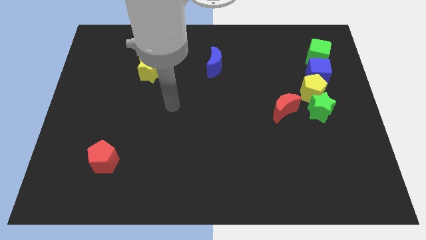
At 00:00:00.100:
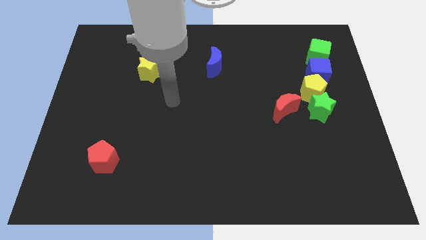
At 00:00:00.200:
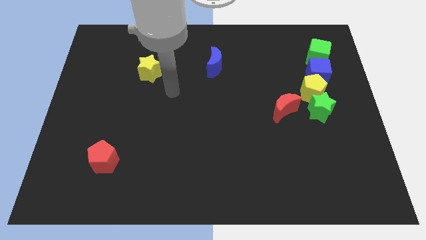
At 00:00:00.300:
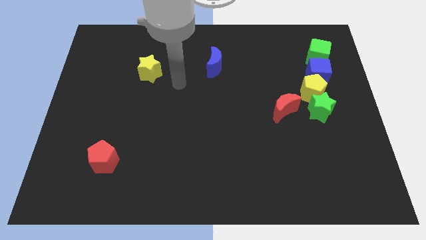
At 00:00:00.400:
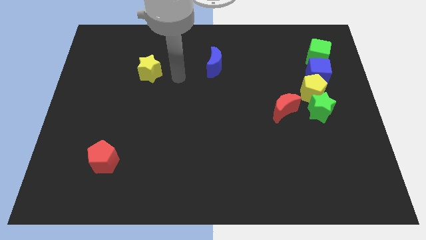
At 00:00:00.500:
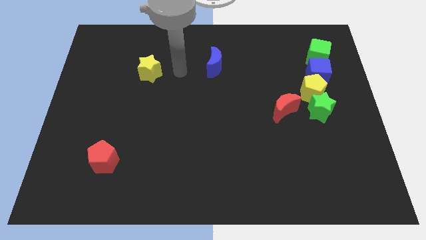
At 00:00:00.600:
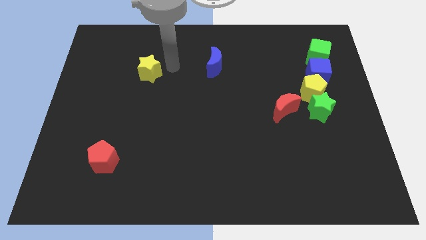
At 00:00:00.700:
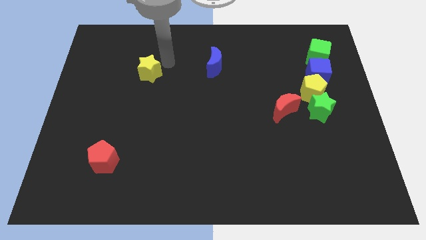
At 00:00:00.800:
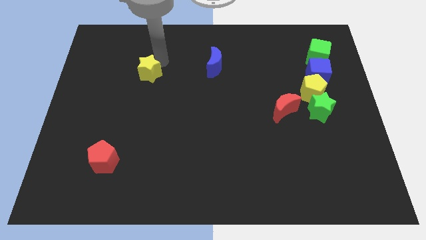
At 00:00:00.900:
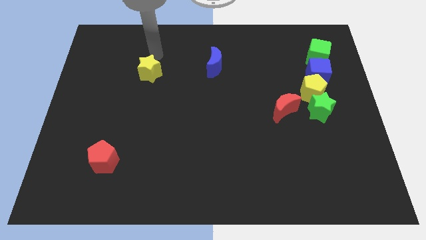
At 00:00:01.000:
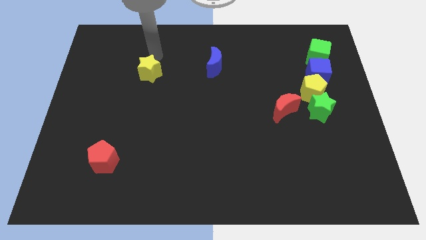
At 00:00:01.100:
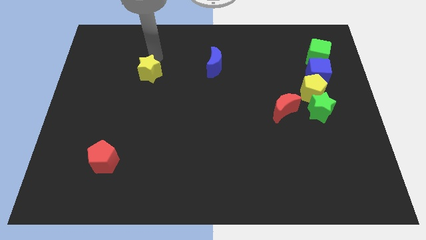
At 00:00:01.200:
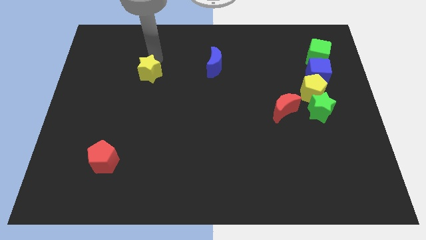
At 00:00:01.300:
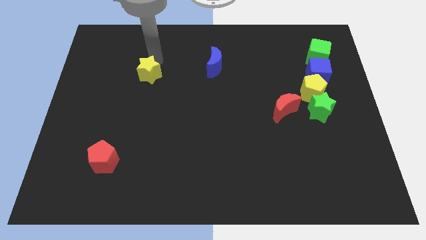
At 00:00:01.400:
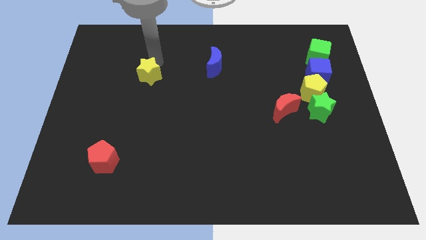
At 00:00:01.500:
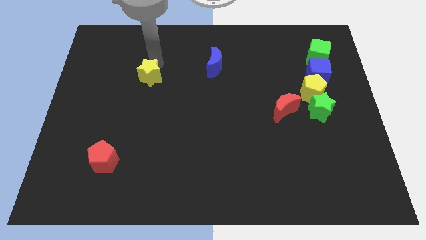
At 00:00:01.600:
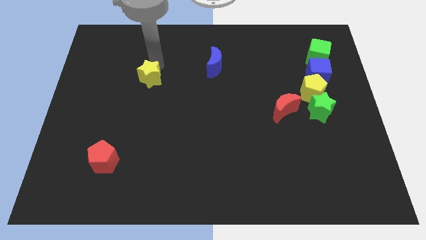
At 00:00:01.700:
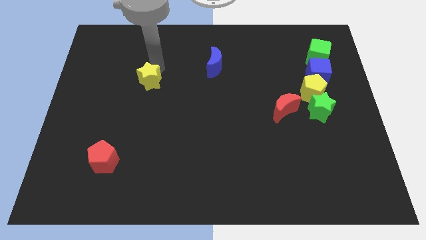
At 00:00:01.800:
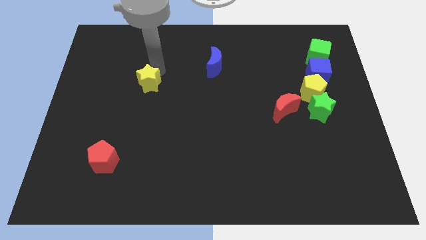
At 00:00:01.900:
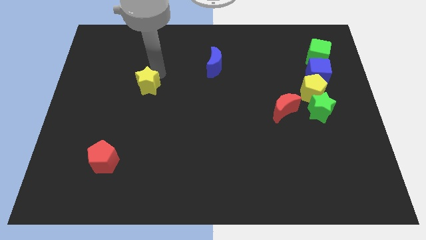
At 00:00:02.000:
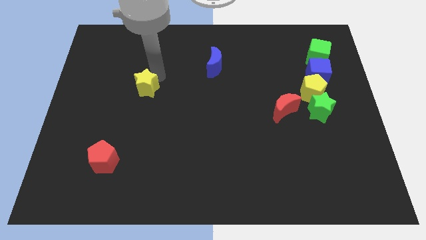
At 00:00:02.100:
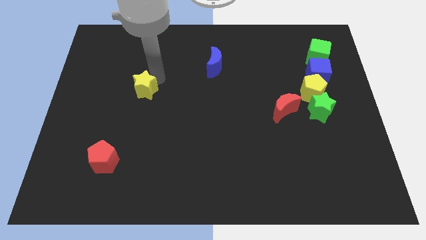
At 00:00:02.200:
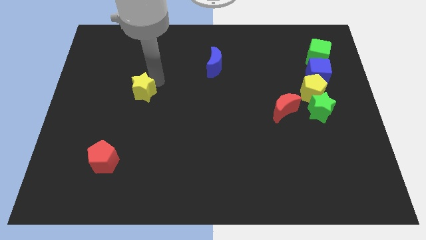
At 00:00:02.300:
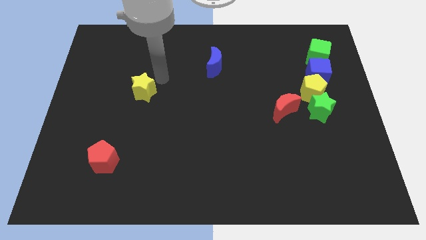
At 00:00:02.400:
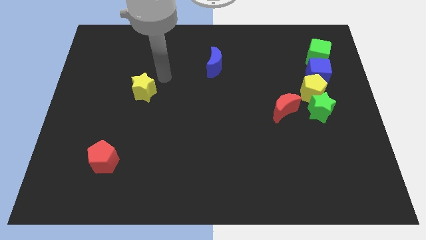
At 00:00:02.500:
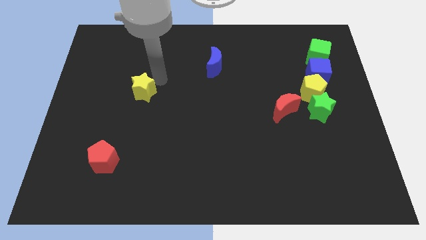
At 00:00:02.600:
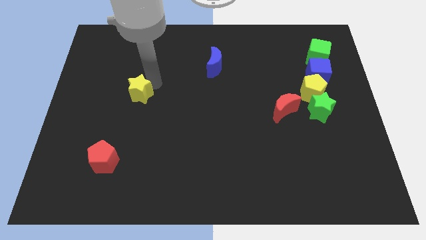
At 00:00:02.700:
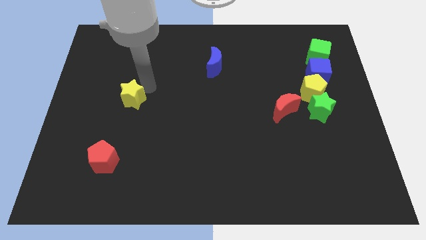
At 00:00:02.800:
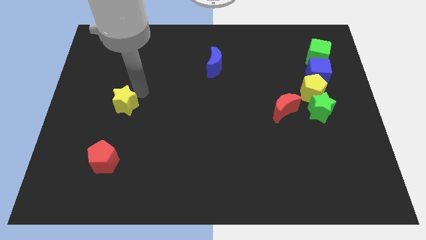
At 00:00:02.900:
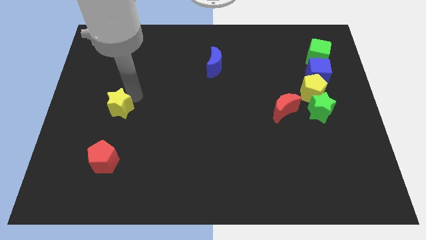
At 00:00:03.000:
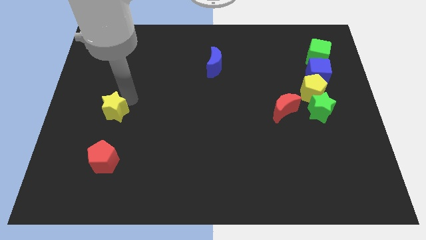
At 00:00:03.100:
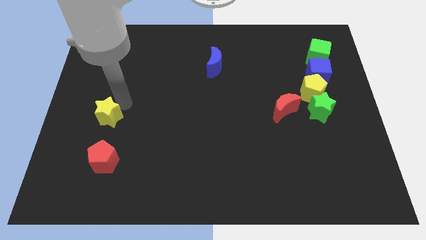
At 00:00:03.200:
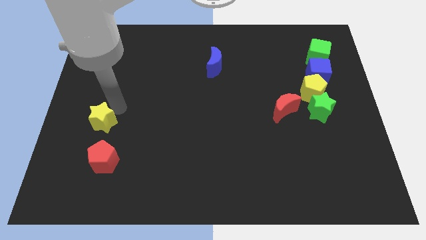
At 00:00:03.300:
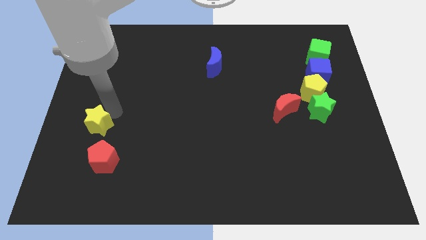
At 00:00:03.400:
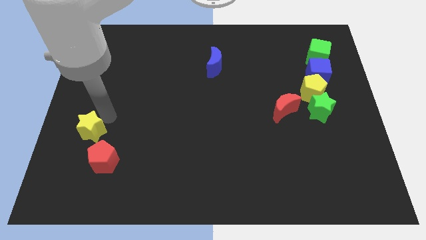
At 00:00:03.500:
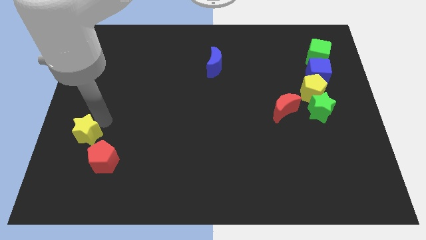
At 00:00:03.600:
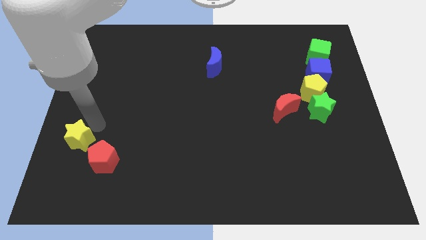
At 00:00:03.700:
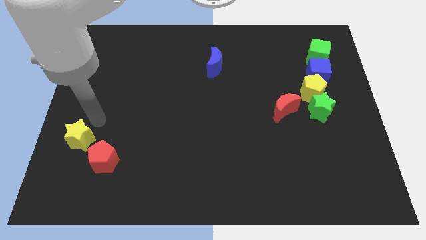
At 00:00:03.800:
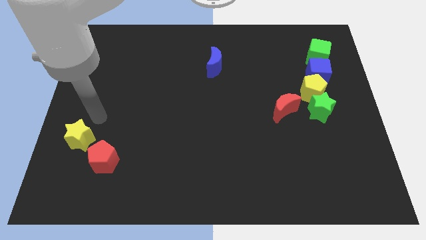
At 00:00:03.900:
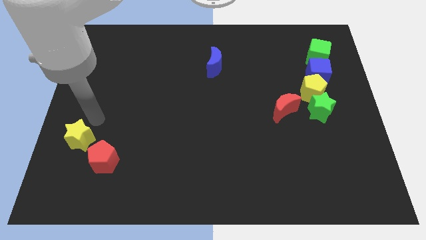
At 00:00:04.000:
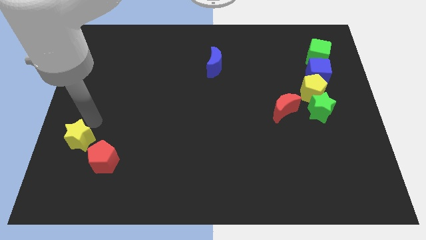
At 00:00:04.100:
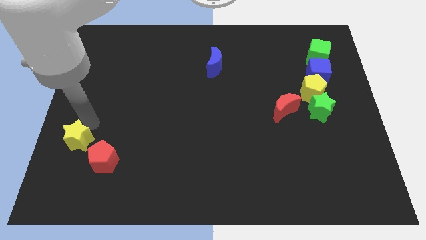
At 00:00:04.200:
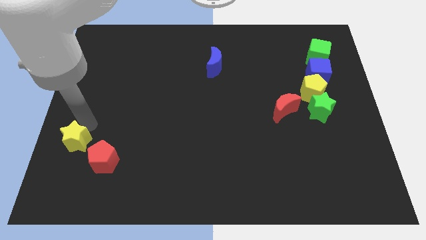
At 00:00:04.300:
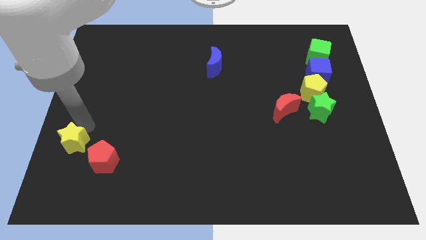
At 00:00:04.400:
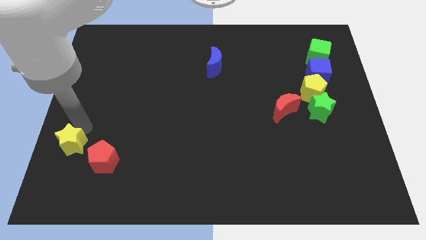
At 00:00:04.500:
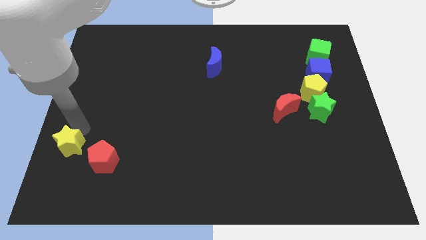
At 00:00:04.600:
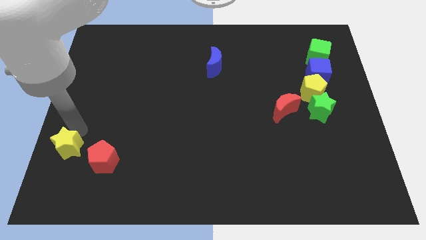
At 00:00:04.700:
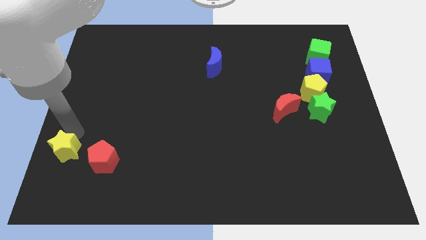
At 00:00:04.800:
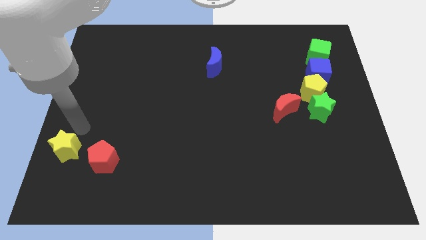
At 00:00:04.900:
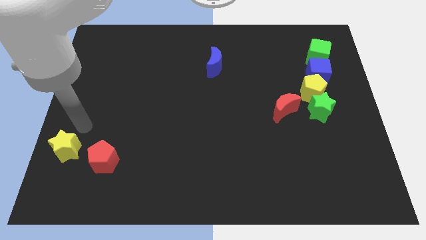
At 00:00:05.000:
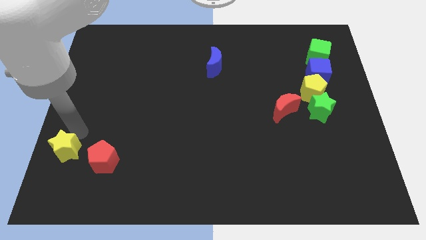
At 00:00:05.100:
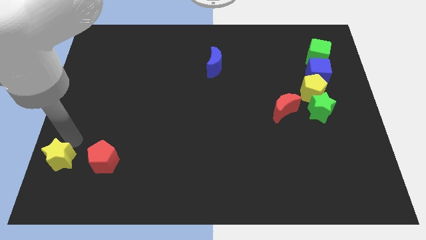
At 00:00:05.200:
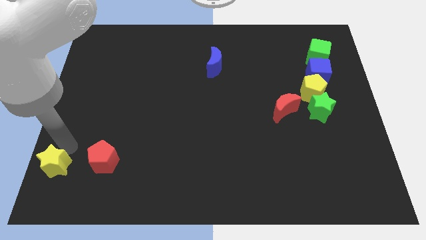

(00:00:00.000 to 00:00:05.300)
slide the yellow star to the bottom left of the board

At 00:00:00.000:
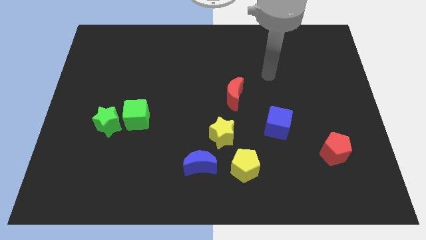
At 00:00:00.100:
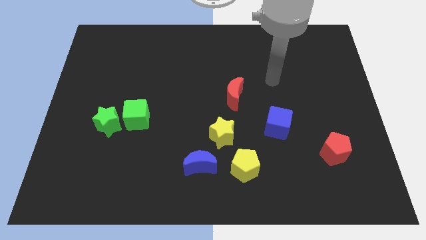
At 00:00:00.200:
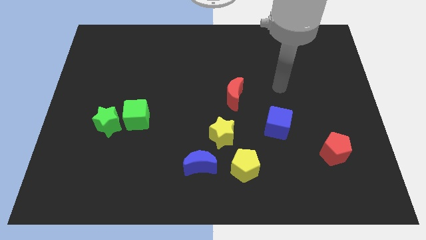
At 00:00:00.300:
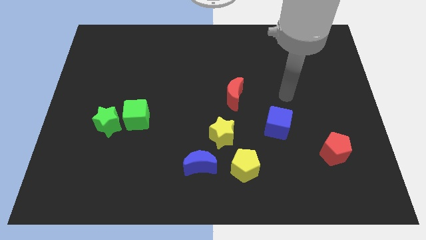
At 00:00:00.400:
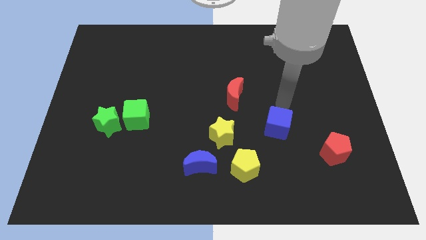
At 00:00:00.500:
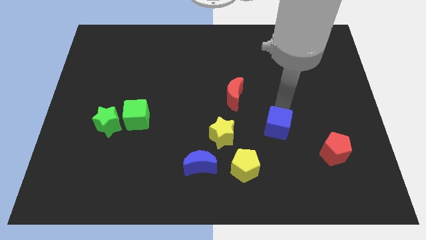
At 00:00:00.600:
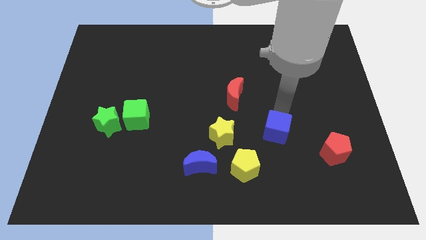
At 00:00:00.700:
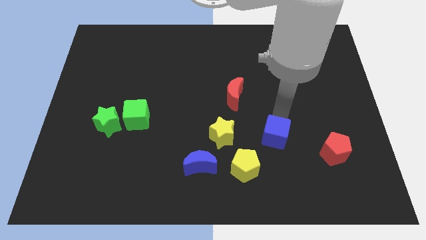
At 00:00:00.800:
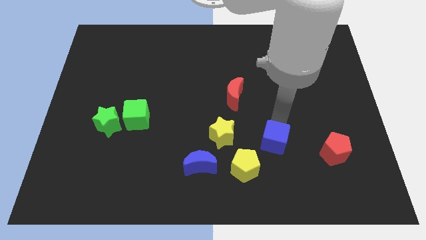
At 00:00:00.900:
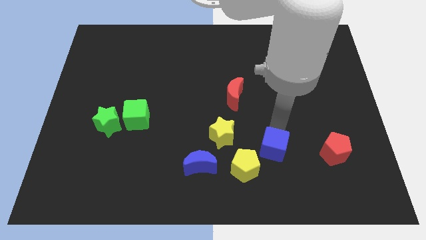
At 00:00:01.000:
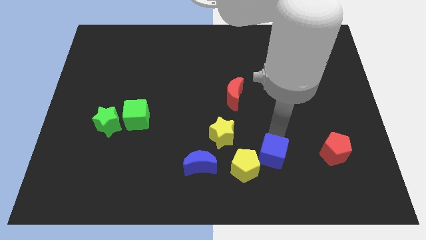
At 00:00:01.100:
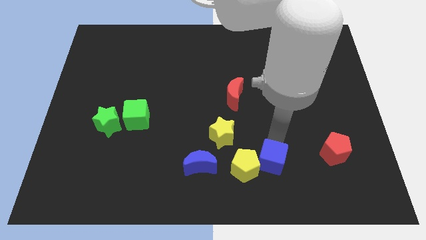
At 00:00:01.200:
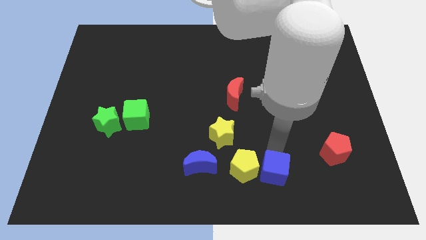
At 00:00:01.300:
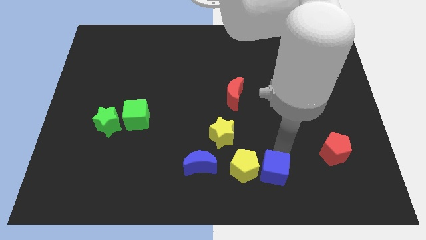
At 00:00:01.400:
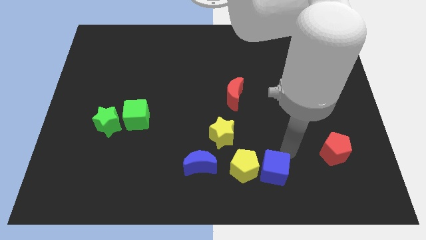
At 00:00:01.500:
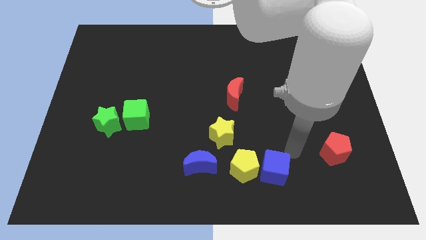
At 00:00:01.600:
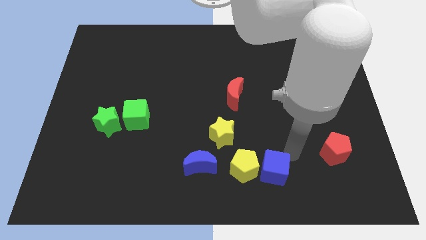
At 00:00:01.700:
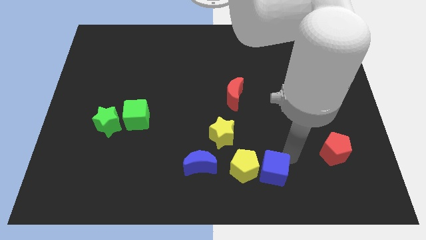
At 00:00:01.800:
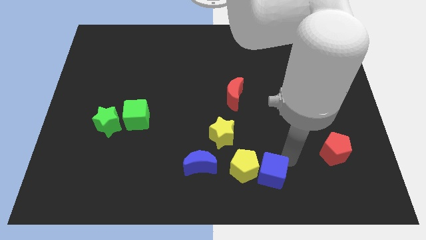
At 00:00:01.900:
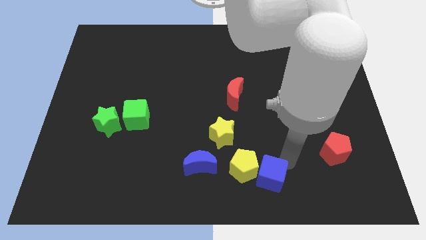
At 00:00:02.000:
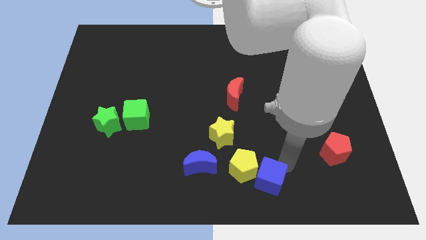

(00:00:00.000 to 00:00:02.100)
slide the blue cube to the bottom side
